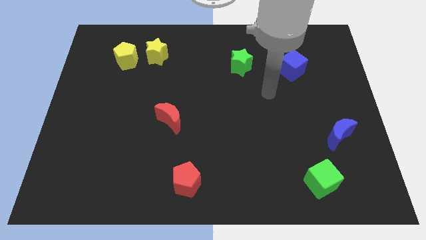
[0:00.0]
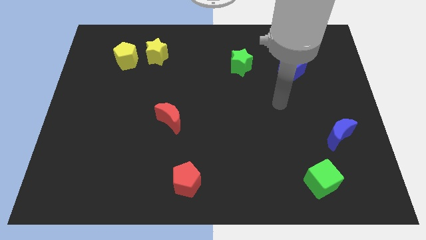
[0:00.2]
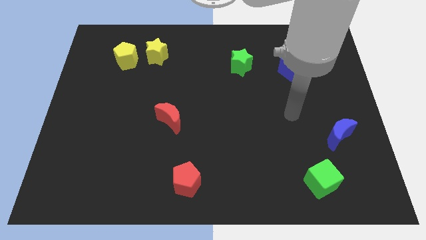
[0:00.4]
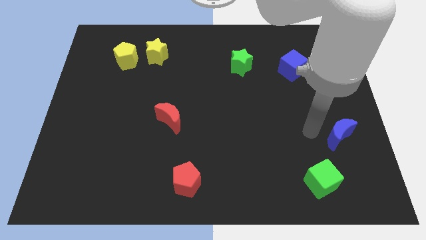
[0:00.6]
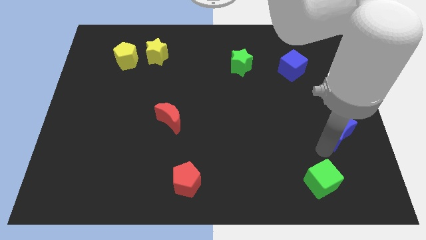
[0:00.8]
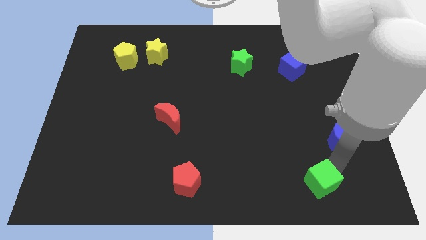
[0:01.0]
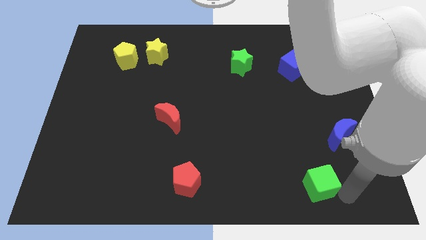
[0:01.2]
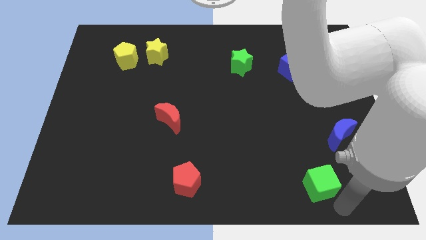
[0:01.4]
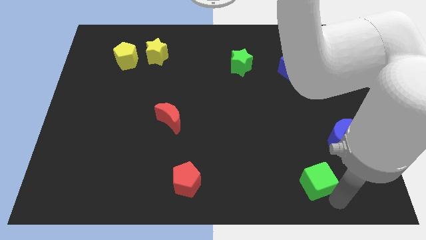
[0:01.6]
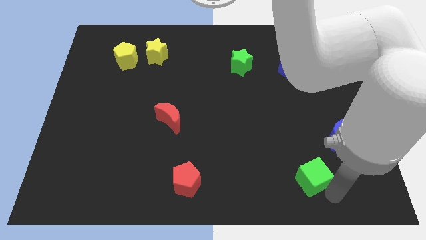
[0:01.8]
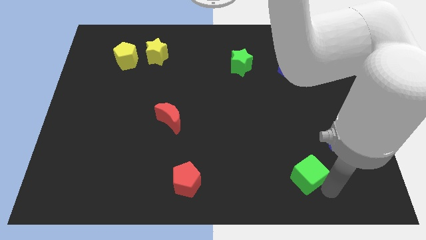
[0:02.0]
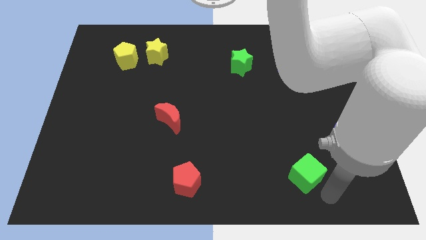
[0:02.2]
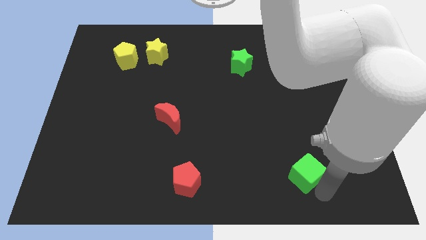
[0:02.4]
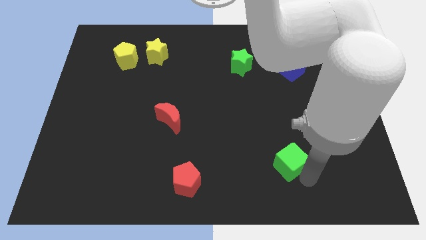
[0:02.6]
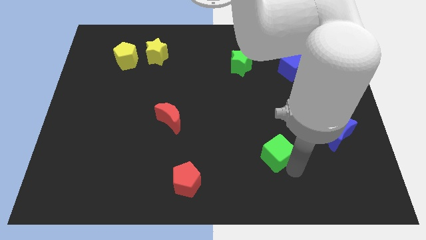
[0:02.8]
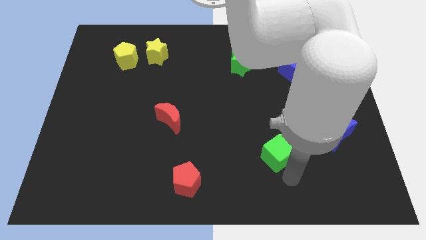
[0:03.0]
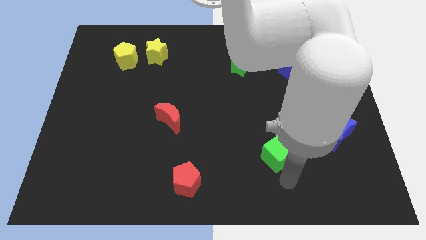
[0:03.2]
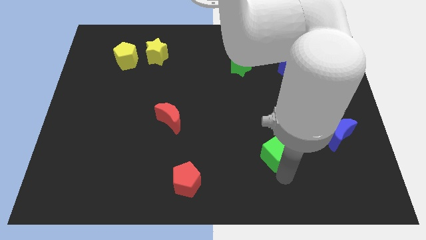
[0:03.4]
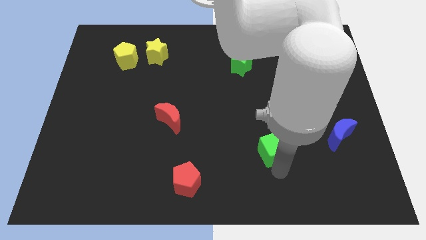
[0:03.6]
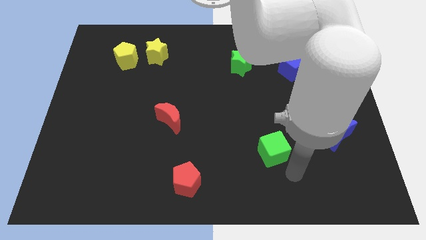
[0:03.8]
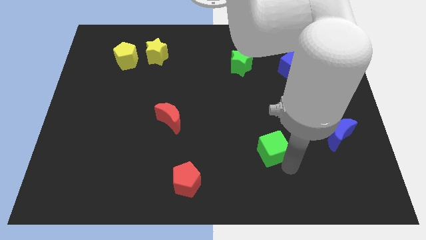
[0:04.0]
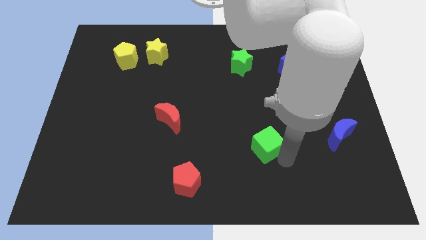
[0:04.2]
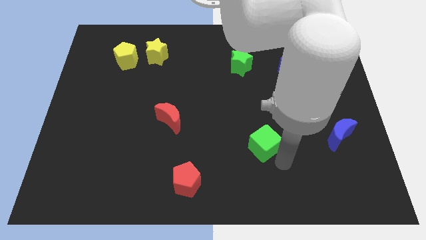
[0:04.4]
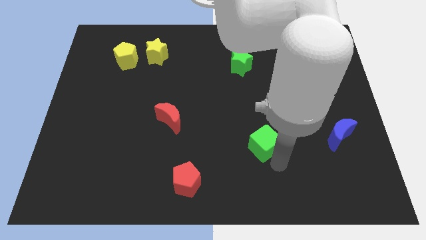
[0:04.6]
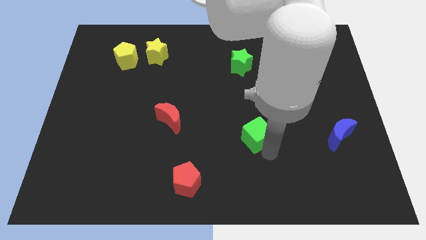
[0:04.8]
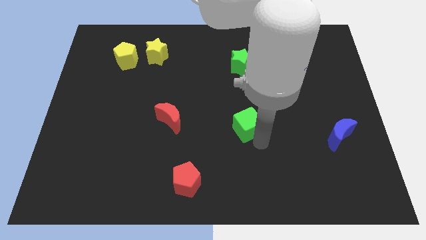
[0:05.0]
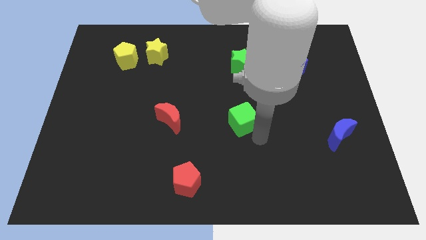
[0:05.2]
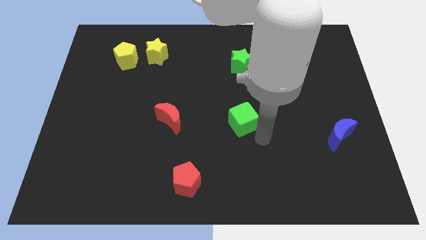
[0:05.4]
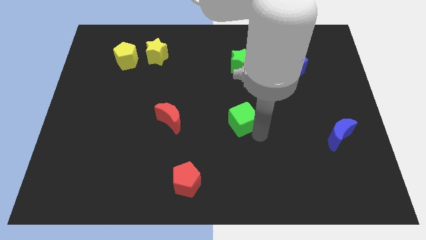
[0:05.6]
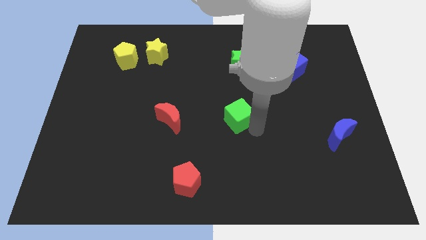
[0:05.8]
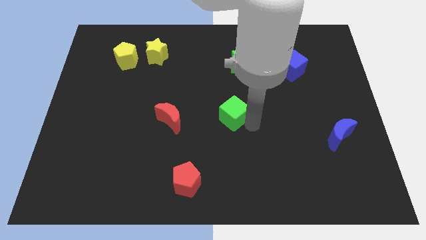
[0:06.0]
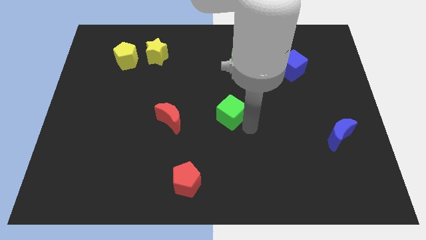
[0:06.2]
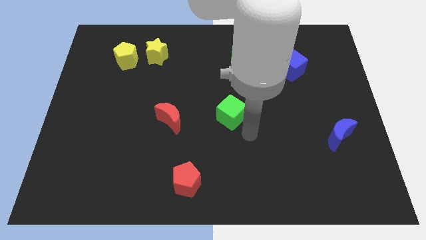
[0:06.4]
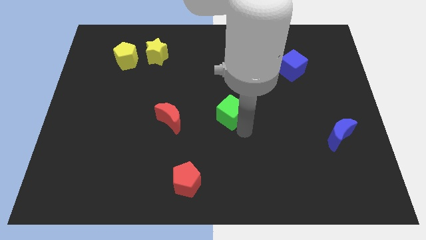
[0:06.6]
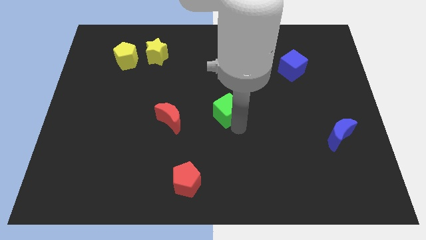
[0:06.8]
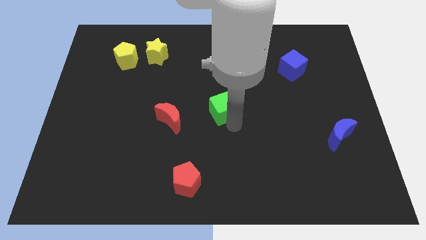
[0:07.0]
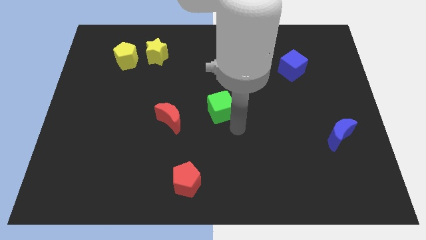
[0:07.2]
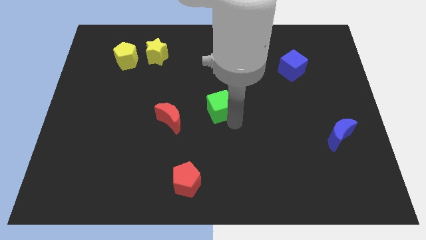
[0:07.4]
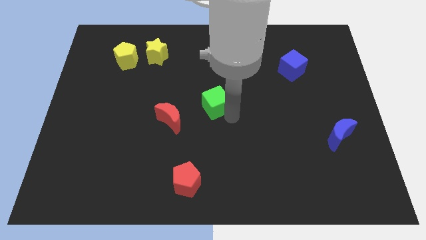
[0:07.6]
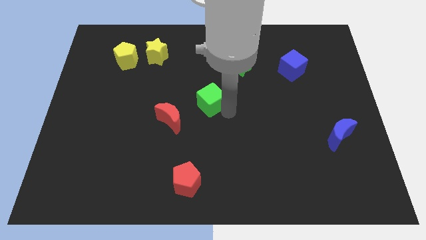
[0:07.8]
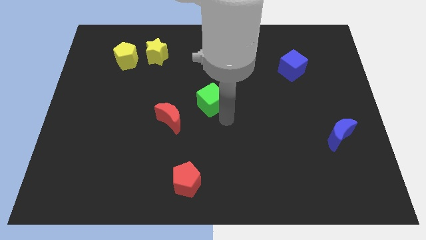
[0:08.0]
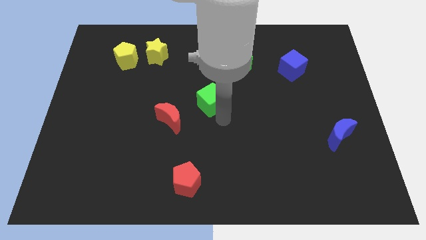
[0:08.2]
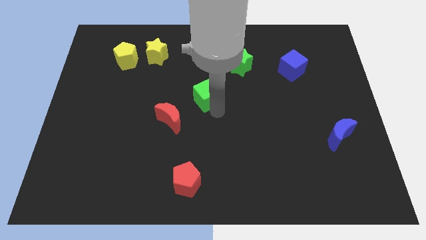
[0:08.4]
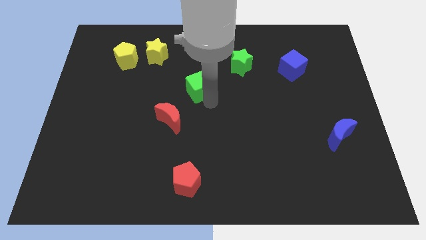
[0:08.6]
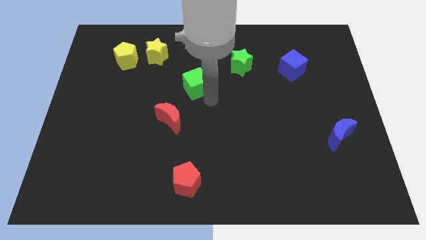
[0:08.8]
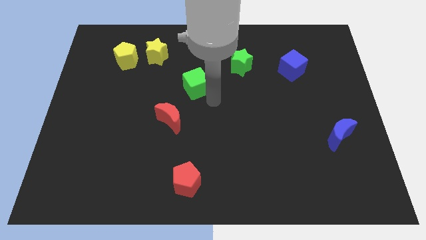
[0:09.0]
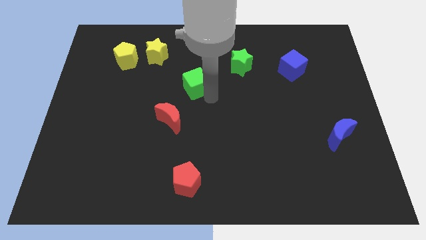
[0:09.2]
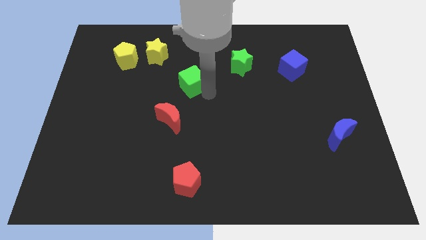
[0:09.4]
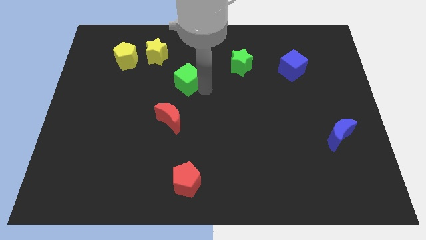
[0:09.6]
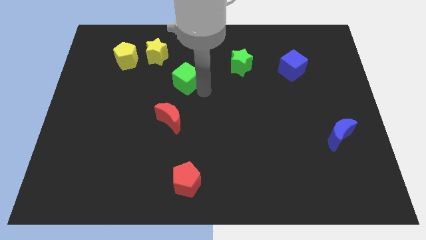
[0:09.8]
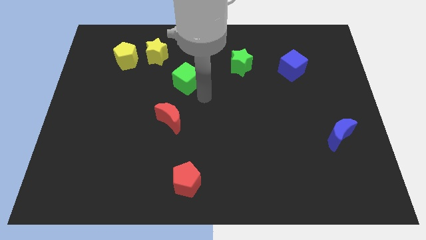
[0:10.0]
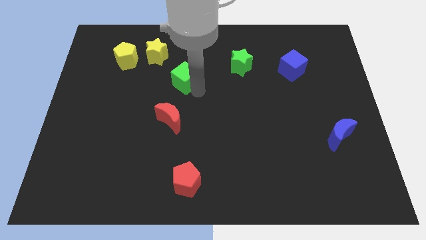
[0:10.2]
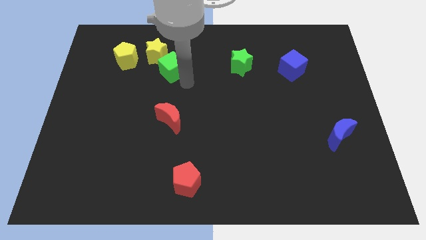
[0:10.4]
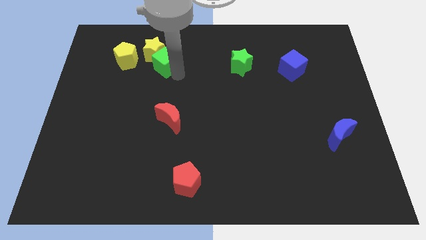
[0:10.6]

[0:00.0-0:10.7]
put the green cube to the yellow star

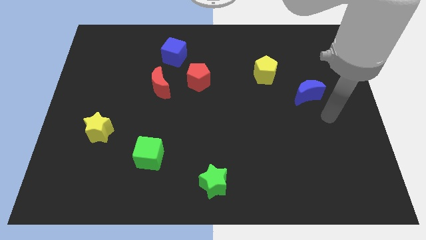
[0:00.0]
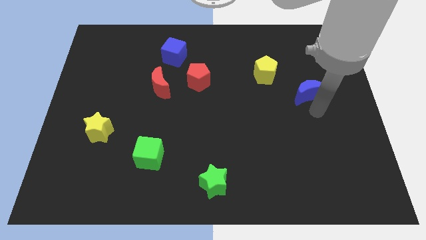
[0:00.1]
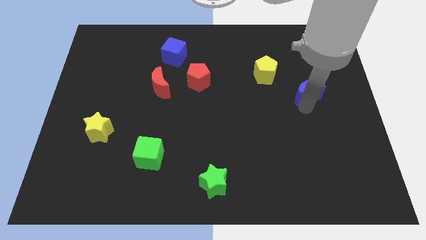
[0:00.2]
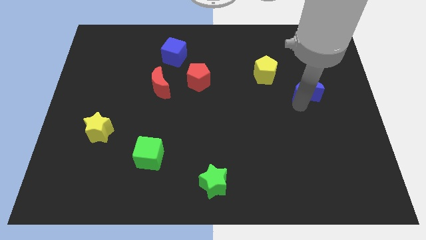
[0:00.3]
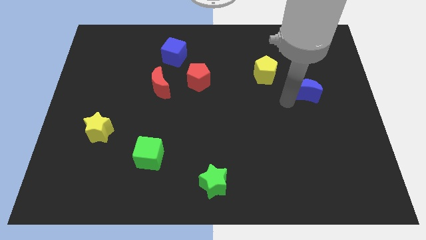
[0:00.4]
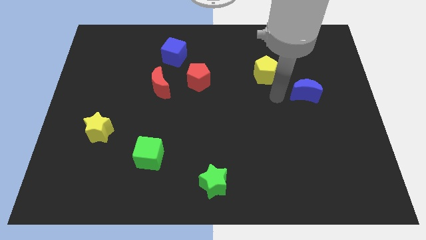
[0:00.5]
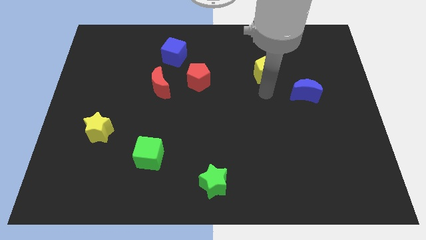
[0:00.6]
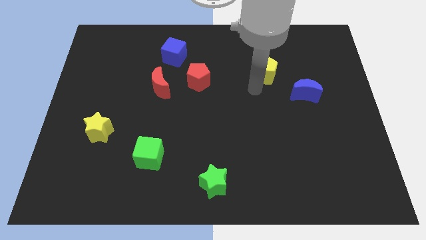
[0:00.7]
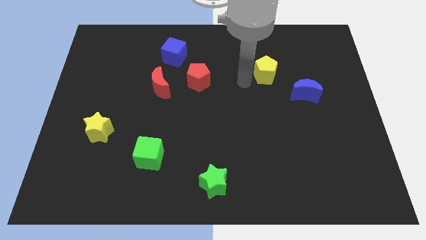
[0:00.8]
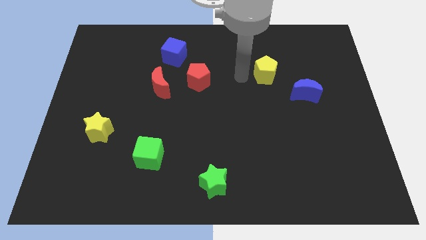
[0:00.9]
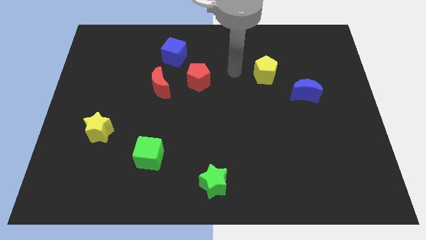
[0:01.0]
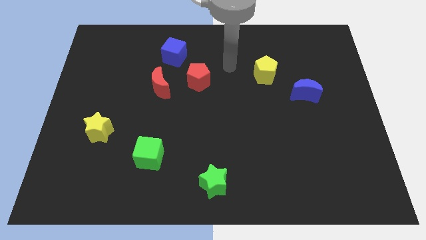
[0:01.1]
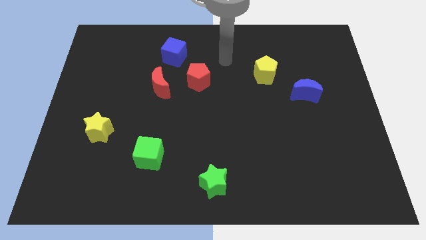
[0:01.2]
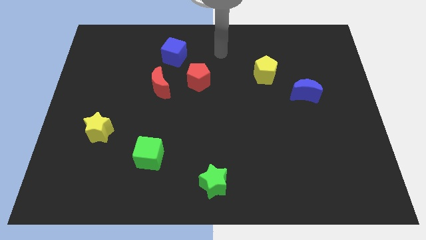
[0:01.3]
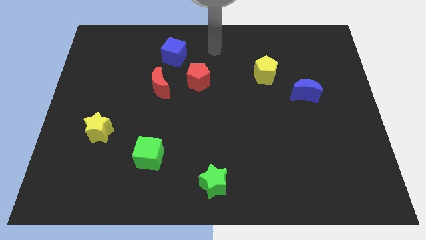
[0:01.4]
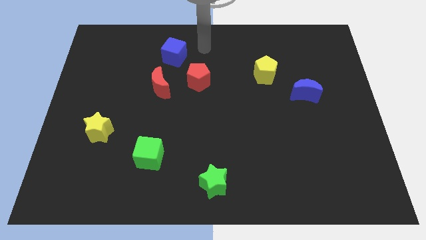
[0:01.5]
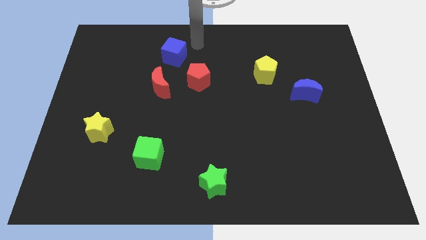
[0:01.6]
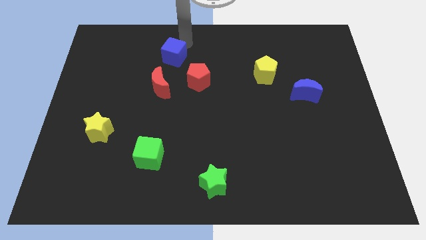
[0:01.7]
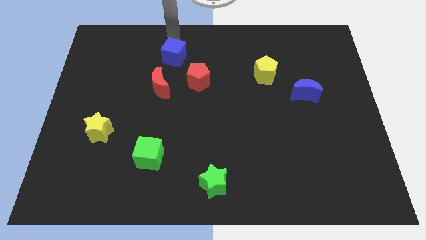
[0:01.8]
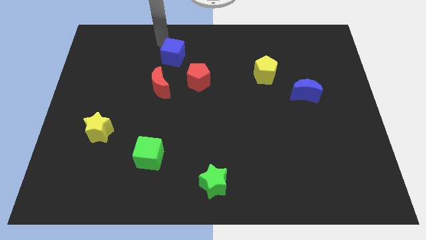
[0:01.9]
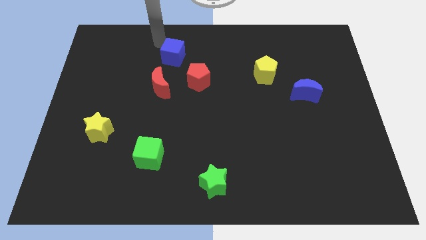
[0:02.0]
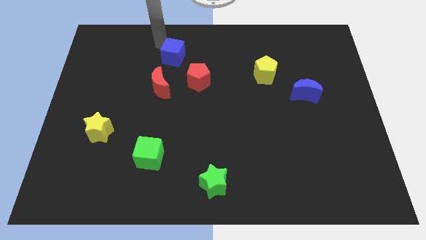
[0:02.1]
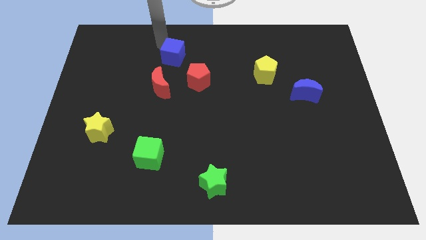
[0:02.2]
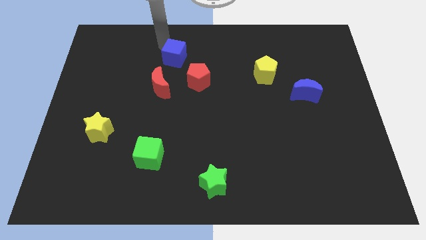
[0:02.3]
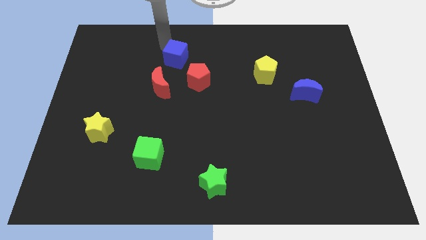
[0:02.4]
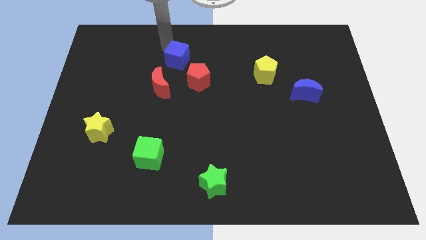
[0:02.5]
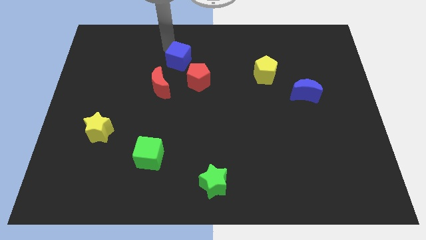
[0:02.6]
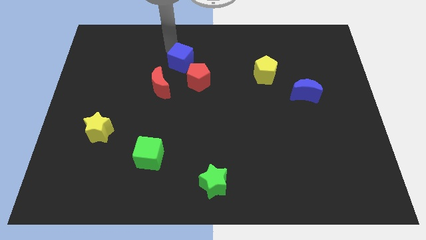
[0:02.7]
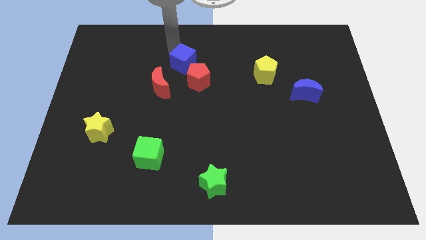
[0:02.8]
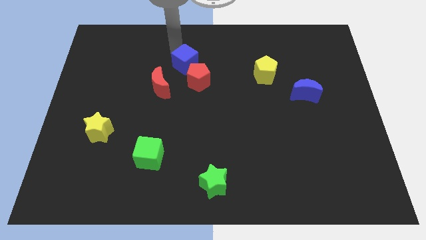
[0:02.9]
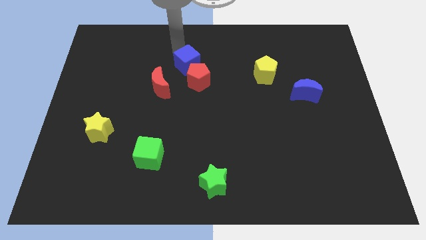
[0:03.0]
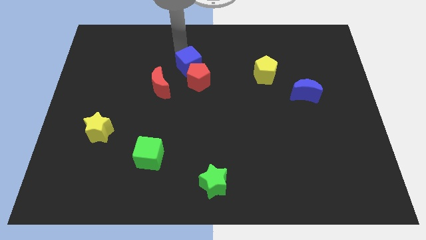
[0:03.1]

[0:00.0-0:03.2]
push the blue cube next to the red pentagon
